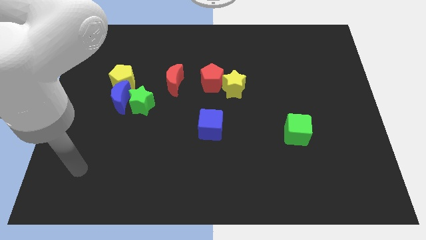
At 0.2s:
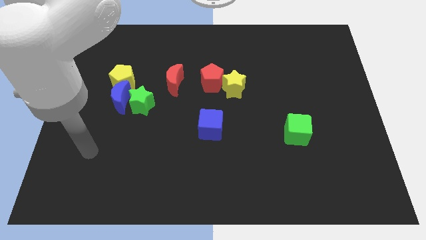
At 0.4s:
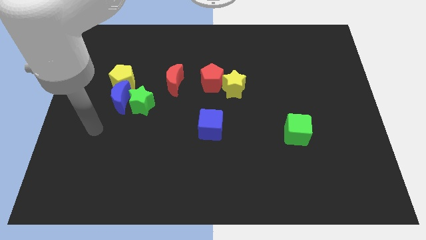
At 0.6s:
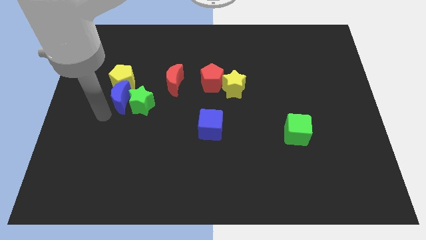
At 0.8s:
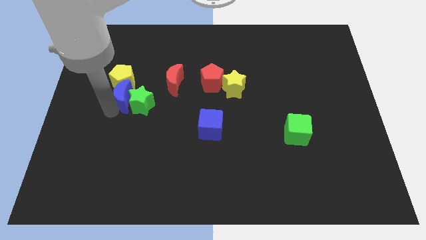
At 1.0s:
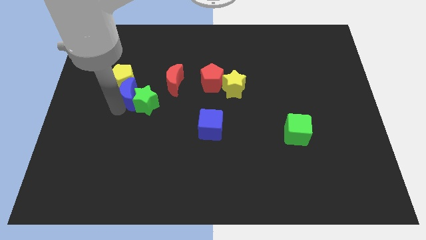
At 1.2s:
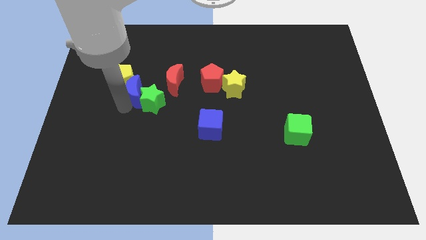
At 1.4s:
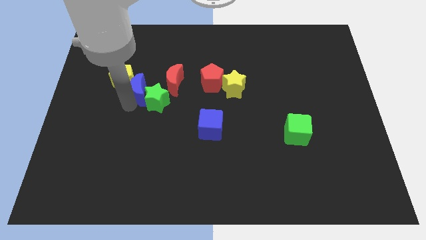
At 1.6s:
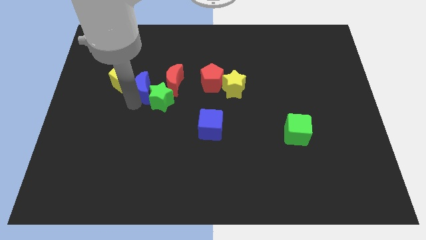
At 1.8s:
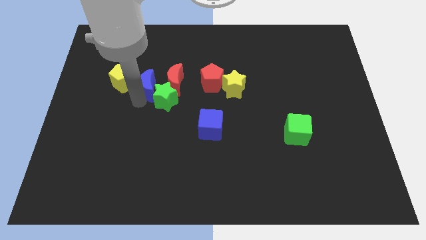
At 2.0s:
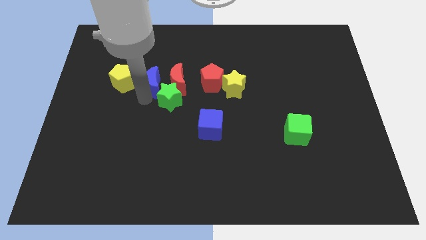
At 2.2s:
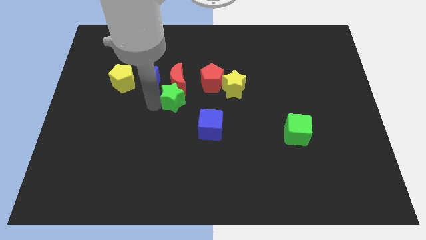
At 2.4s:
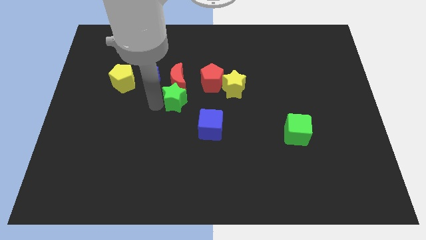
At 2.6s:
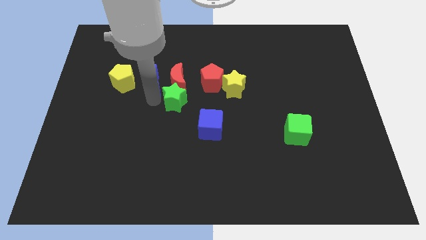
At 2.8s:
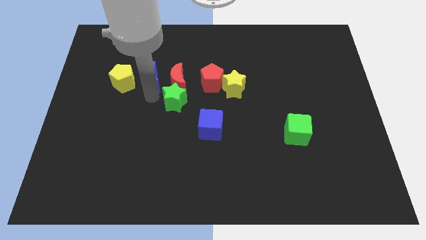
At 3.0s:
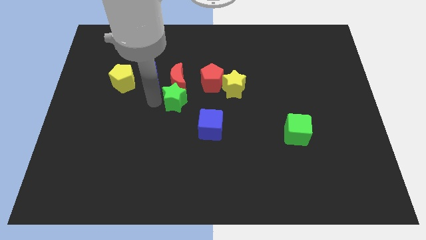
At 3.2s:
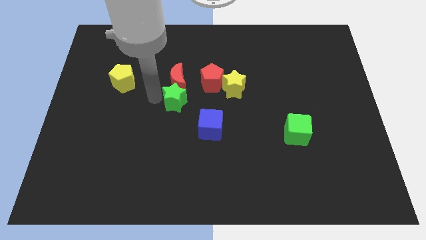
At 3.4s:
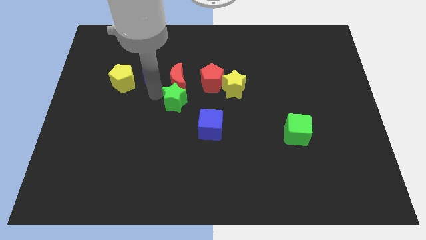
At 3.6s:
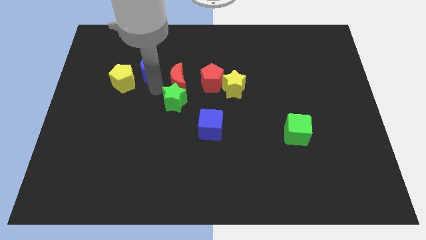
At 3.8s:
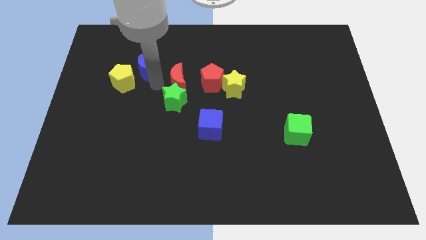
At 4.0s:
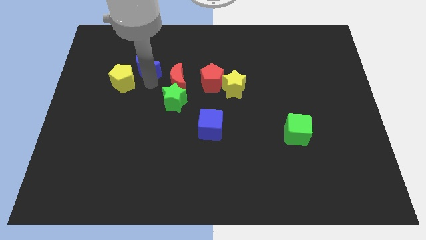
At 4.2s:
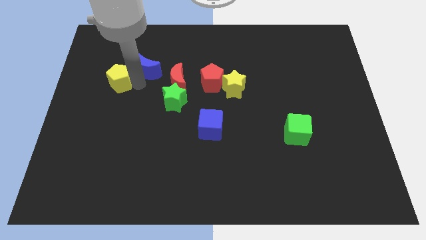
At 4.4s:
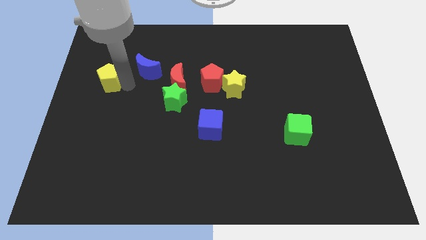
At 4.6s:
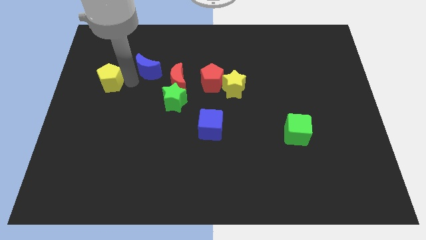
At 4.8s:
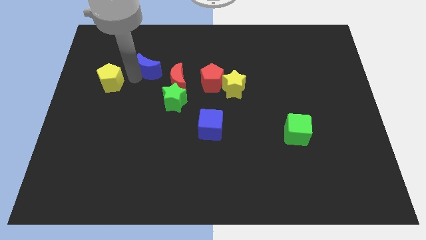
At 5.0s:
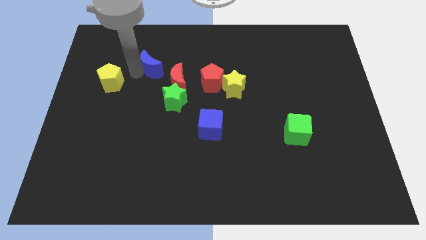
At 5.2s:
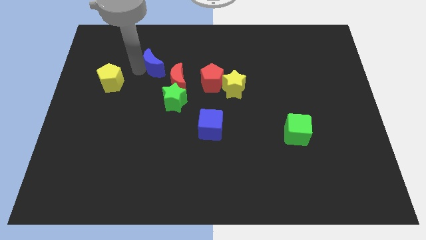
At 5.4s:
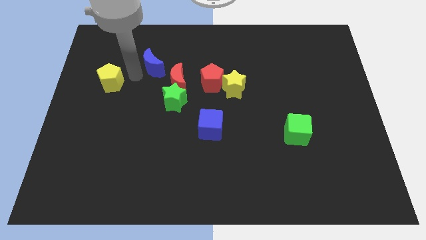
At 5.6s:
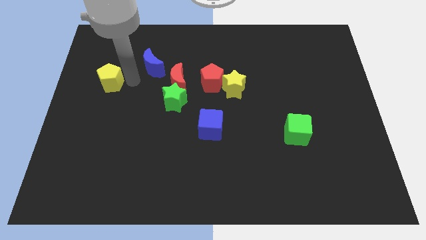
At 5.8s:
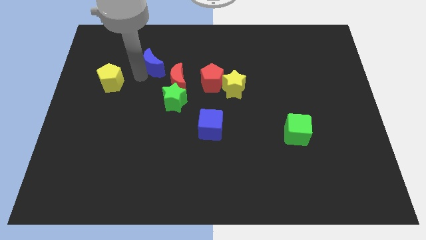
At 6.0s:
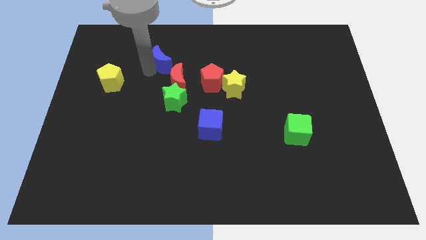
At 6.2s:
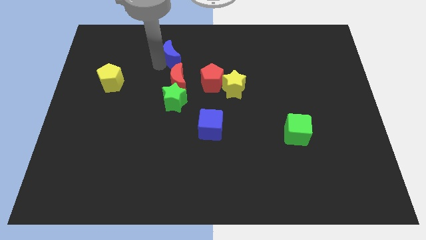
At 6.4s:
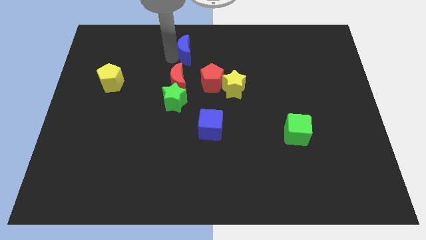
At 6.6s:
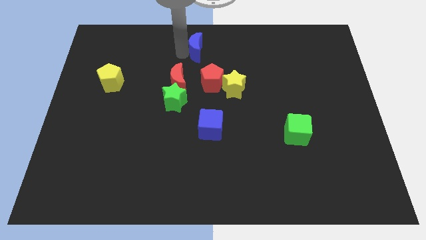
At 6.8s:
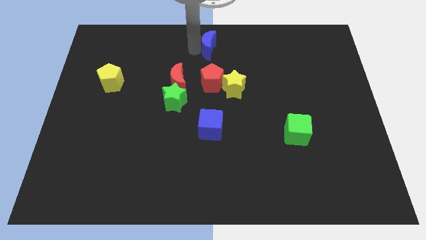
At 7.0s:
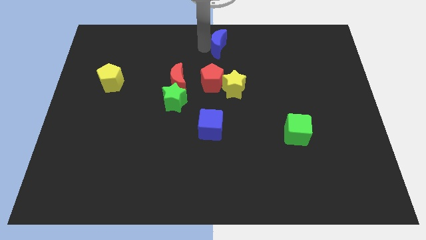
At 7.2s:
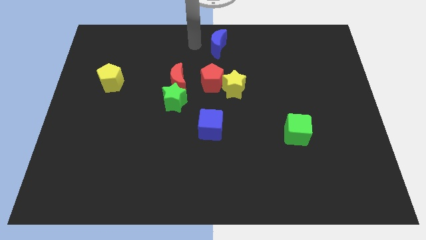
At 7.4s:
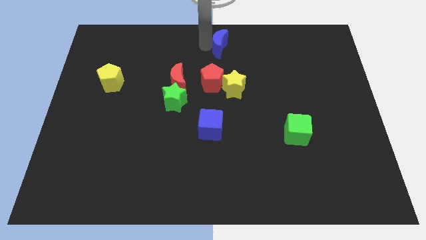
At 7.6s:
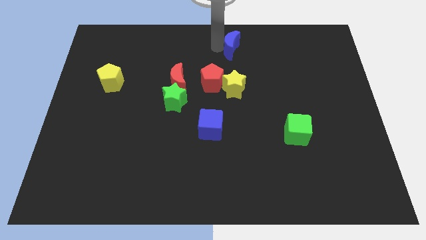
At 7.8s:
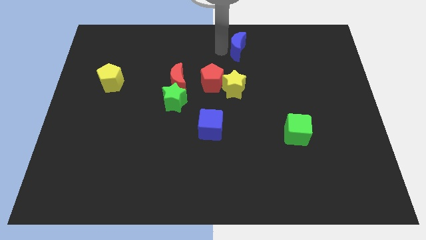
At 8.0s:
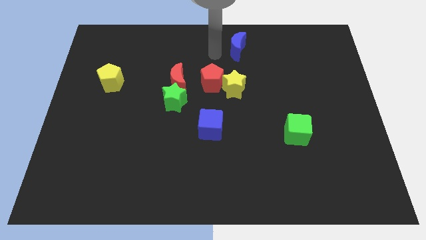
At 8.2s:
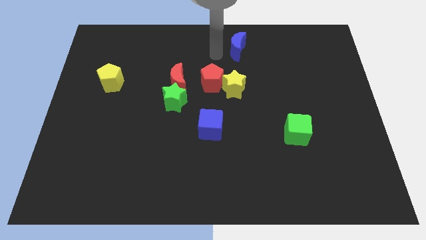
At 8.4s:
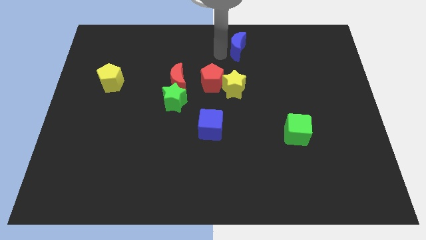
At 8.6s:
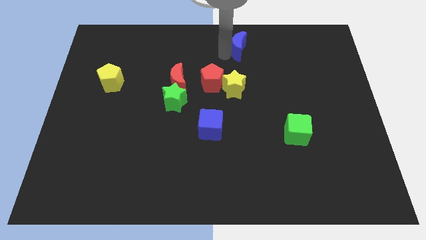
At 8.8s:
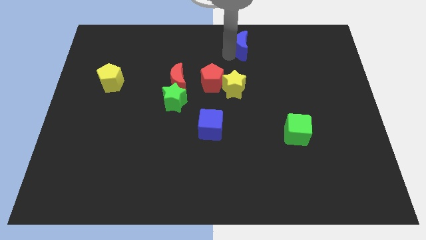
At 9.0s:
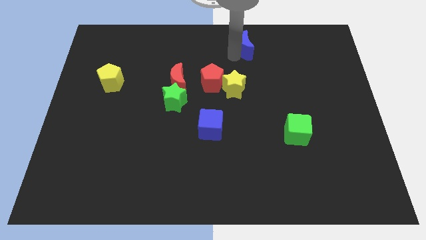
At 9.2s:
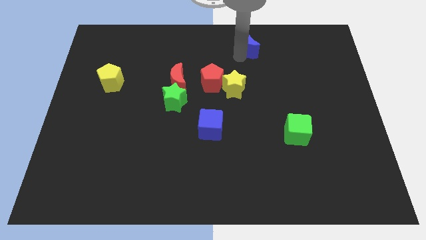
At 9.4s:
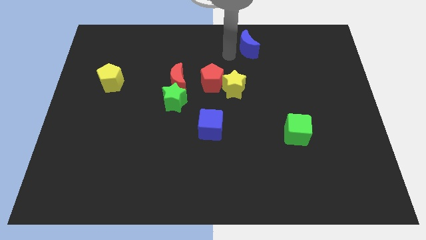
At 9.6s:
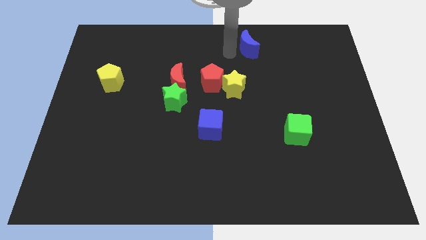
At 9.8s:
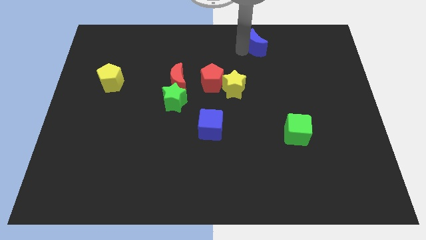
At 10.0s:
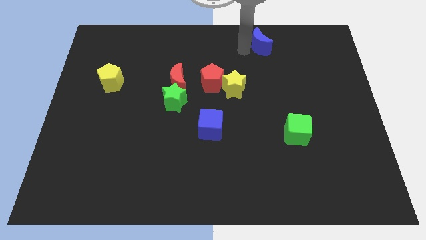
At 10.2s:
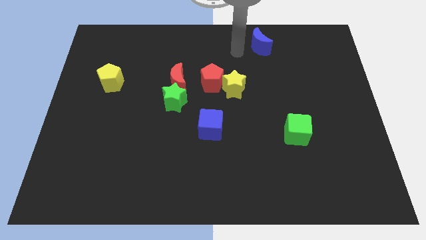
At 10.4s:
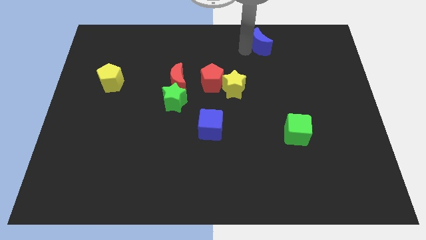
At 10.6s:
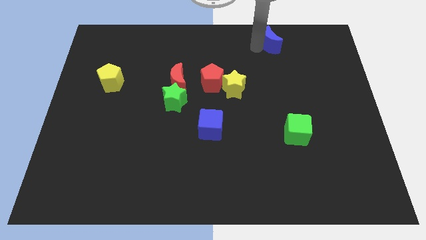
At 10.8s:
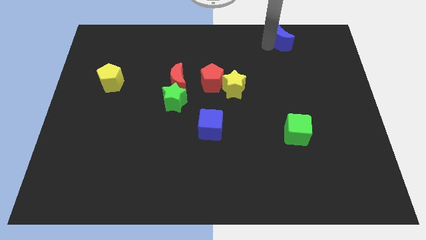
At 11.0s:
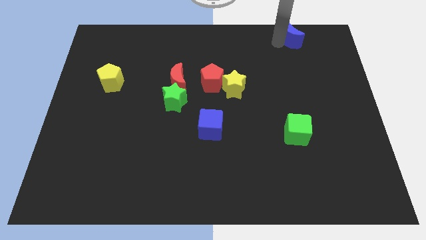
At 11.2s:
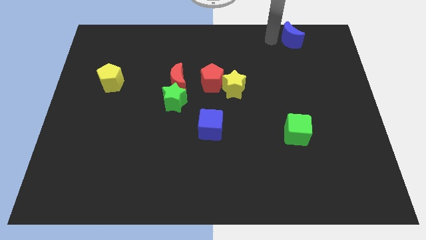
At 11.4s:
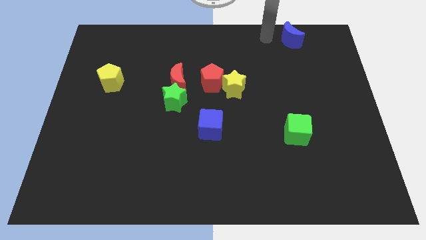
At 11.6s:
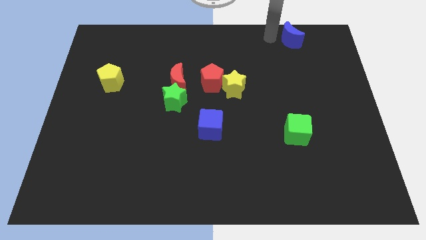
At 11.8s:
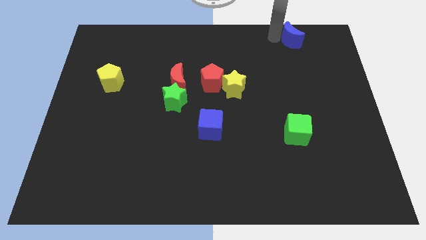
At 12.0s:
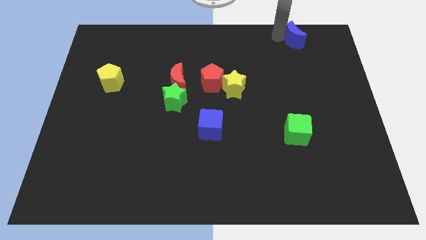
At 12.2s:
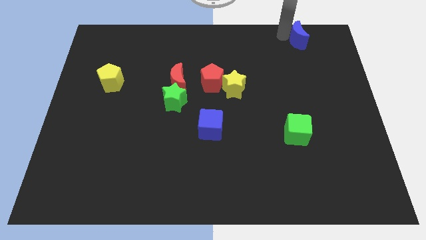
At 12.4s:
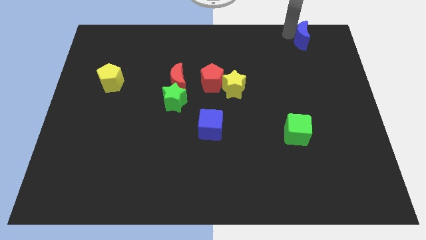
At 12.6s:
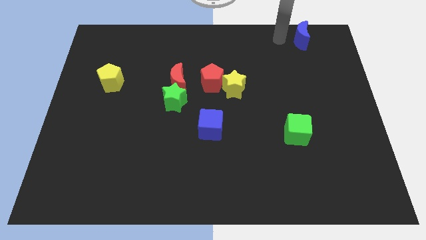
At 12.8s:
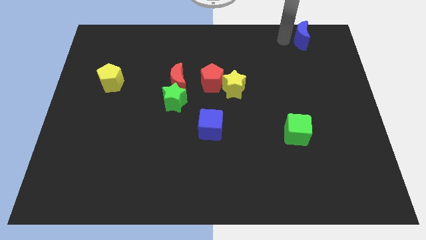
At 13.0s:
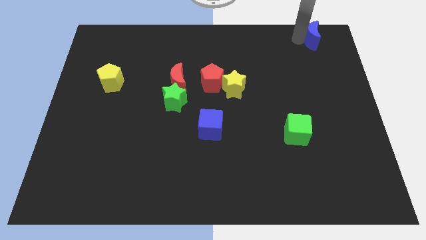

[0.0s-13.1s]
move the blue moon to the top right

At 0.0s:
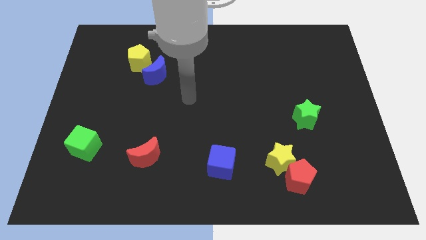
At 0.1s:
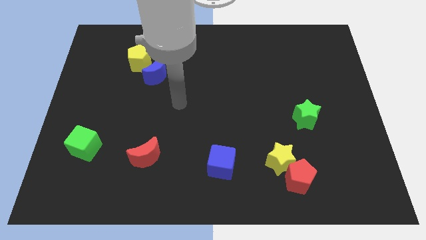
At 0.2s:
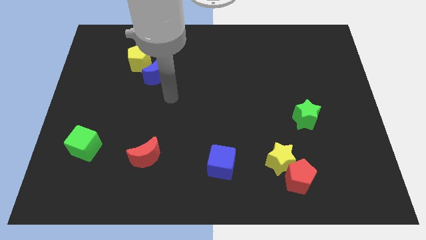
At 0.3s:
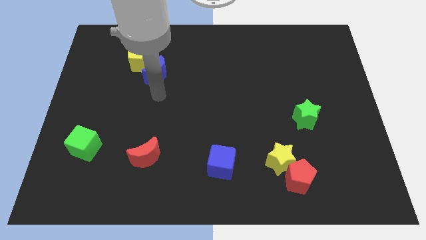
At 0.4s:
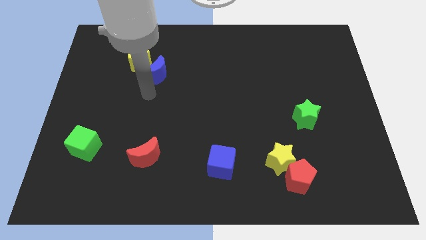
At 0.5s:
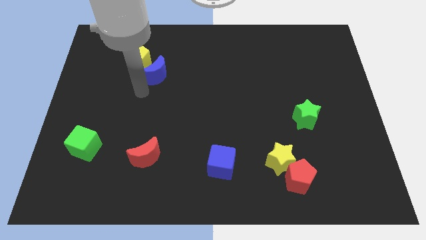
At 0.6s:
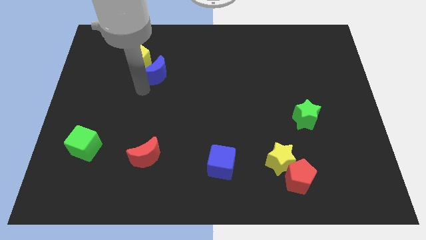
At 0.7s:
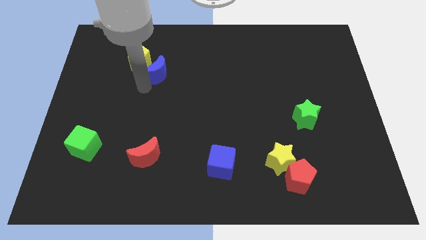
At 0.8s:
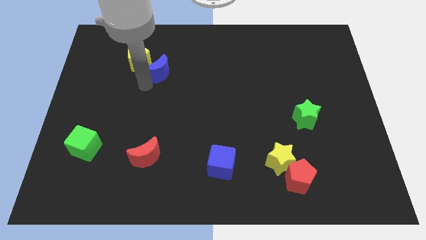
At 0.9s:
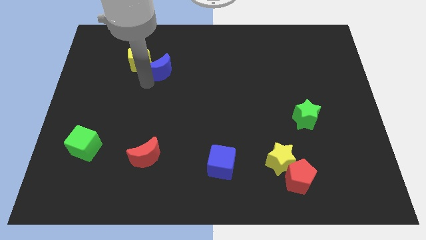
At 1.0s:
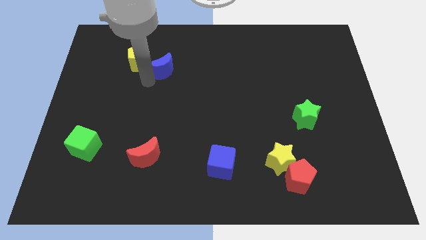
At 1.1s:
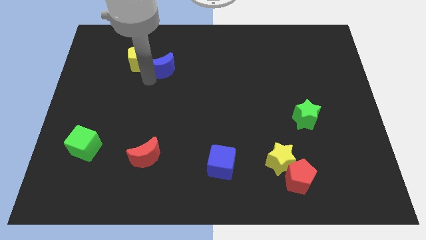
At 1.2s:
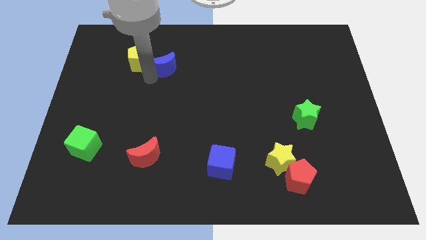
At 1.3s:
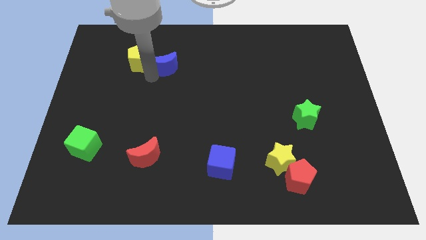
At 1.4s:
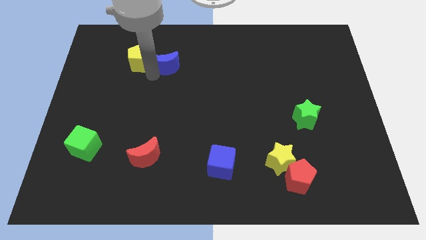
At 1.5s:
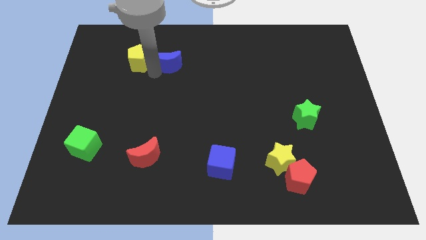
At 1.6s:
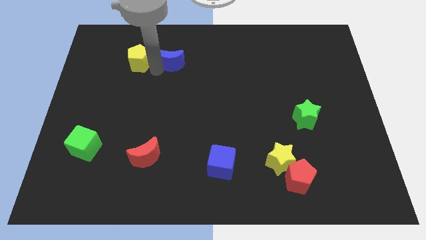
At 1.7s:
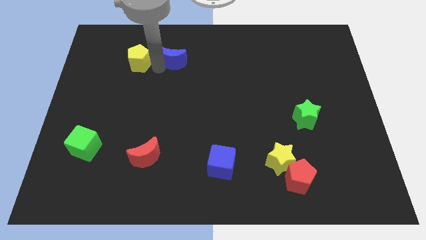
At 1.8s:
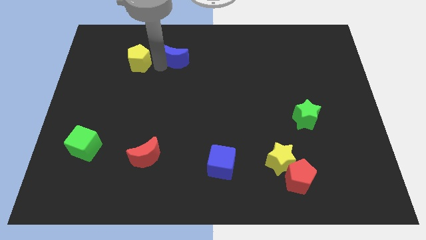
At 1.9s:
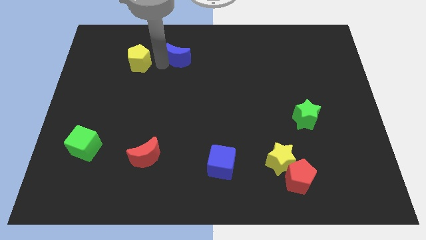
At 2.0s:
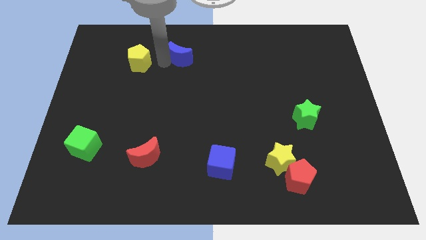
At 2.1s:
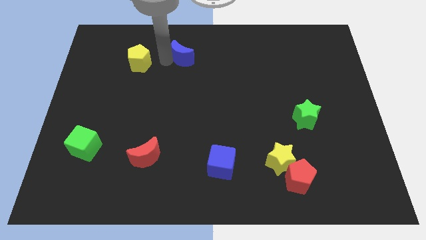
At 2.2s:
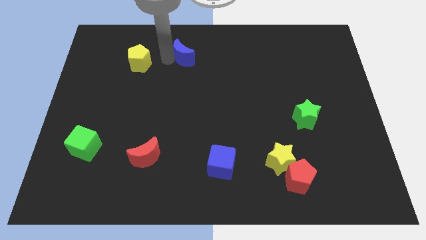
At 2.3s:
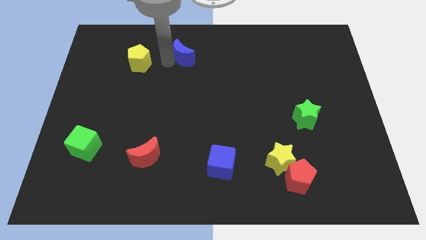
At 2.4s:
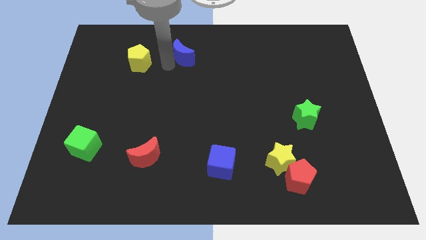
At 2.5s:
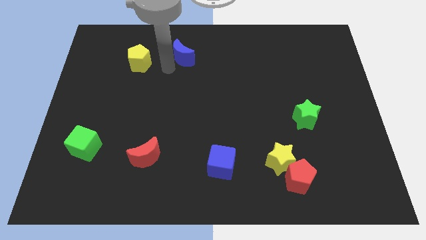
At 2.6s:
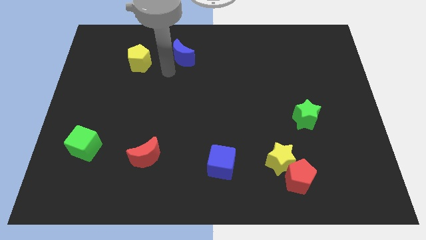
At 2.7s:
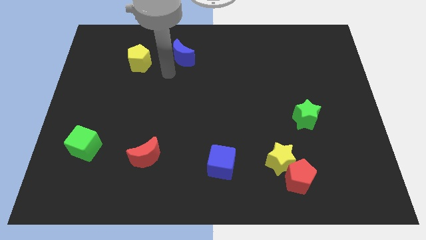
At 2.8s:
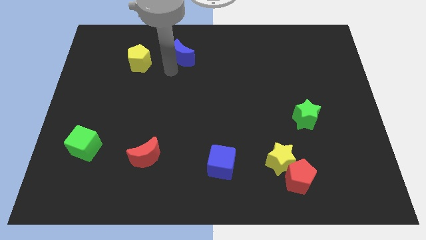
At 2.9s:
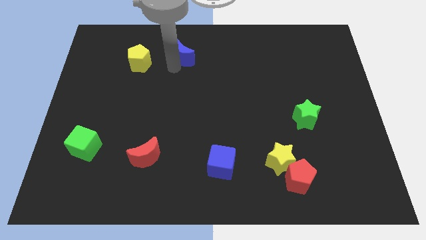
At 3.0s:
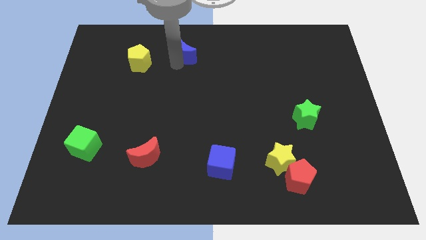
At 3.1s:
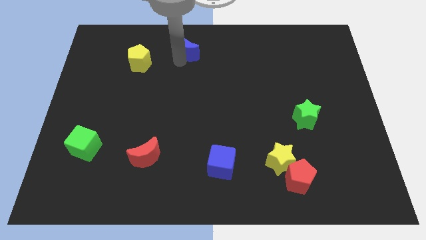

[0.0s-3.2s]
slide the blue moon to the top side
